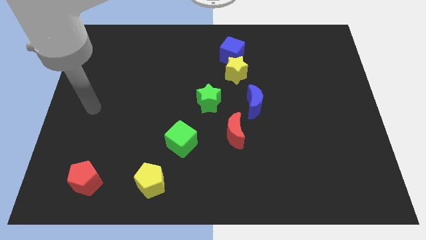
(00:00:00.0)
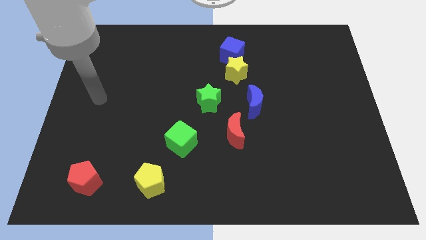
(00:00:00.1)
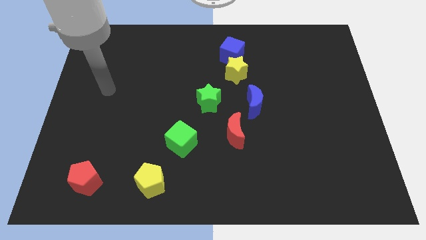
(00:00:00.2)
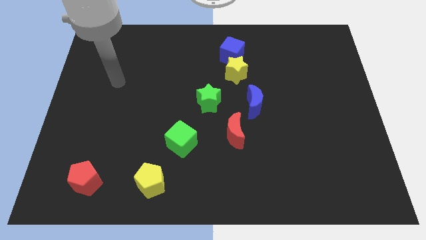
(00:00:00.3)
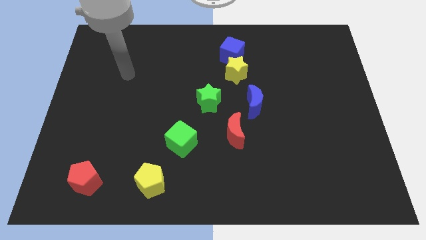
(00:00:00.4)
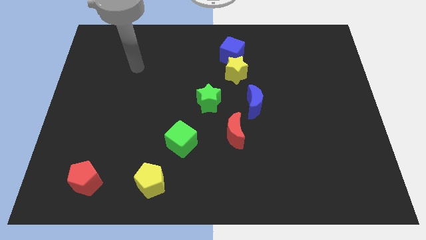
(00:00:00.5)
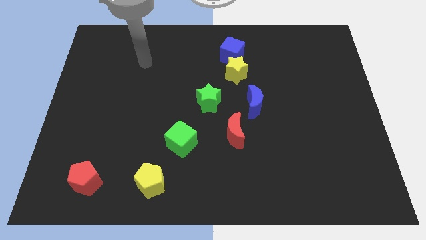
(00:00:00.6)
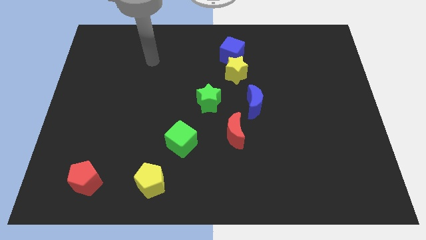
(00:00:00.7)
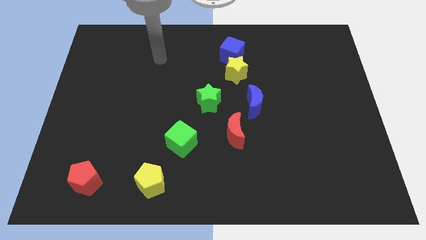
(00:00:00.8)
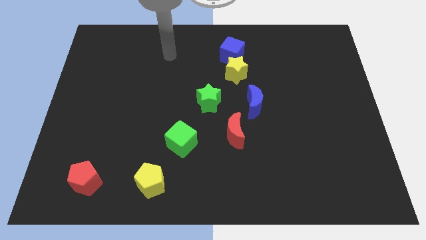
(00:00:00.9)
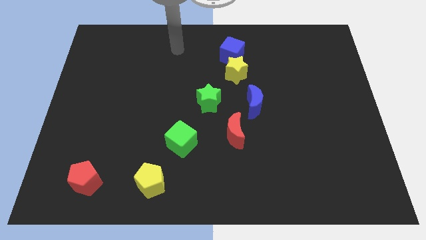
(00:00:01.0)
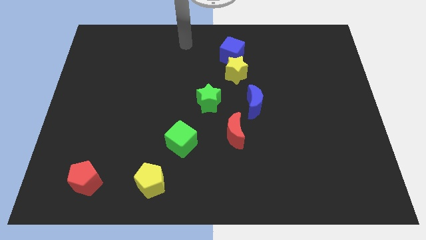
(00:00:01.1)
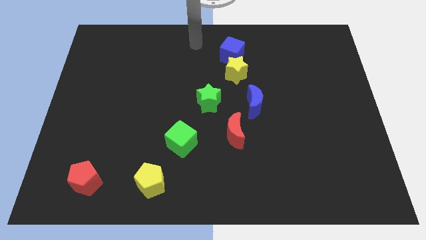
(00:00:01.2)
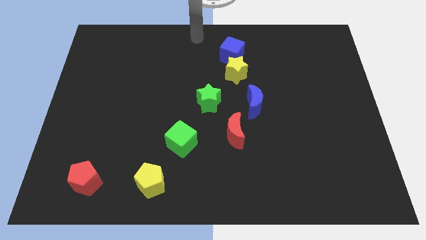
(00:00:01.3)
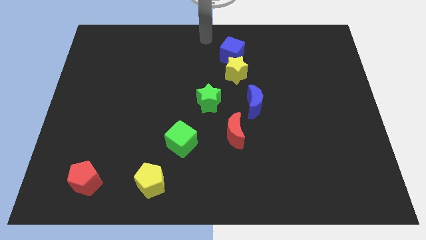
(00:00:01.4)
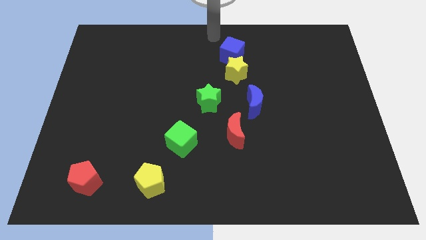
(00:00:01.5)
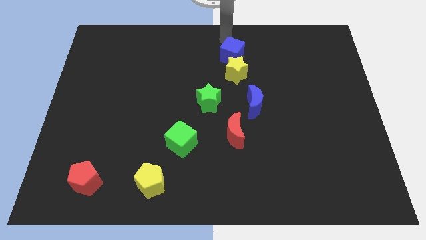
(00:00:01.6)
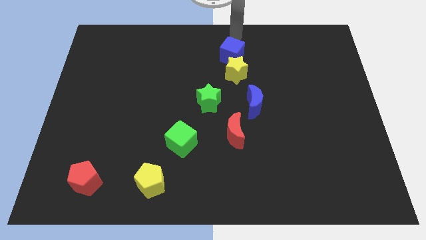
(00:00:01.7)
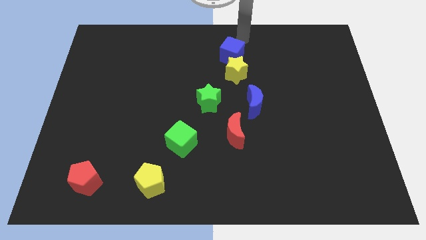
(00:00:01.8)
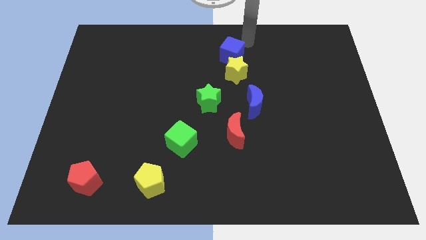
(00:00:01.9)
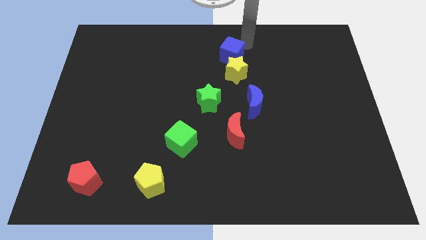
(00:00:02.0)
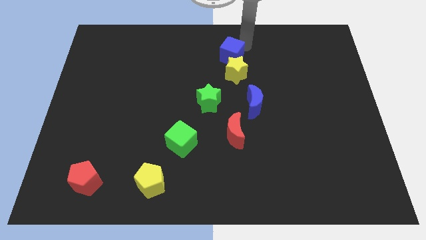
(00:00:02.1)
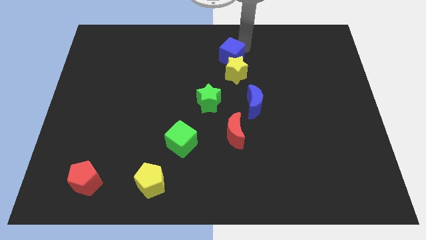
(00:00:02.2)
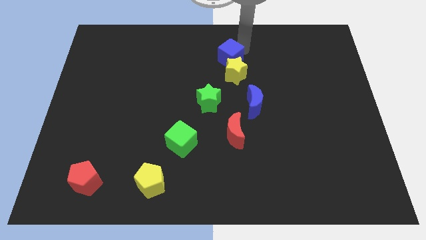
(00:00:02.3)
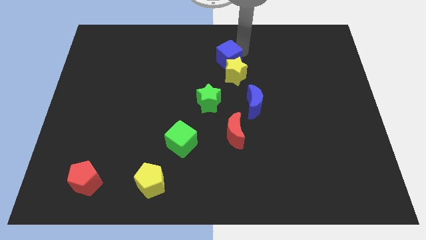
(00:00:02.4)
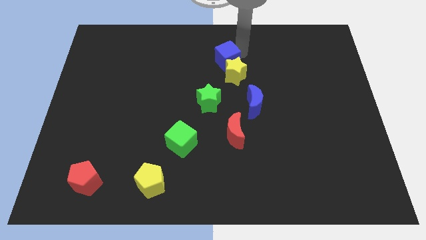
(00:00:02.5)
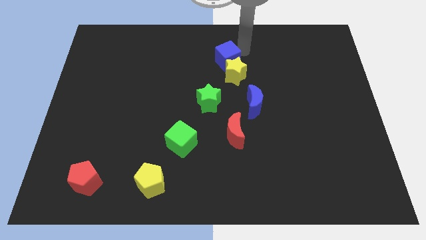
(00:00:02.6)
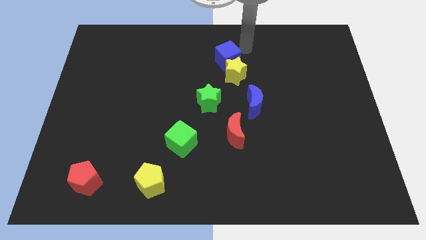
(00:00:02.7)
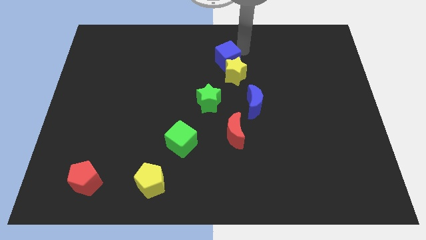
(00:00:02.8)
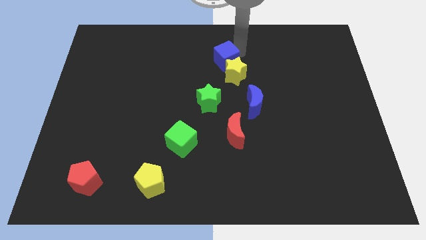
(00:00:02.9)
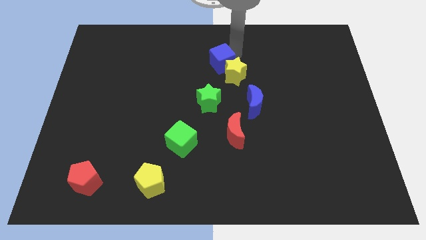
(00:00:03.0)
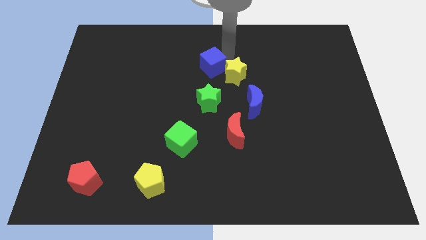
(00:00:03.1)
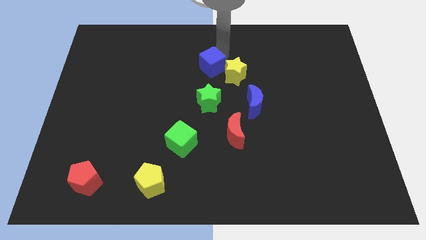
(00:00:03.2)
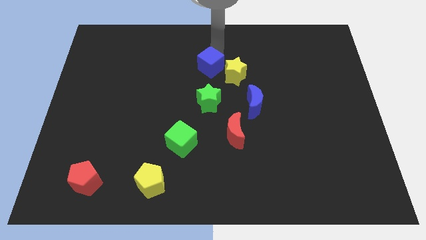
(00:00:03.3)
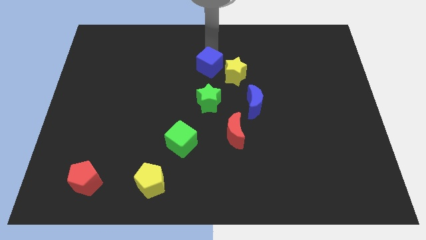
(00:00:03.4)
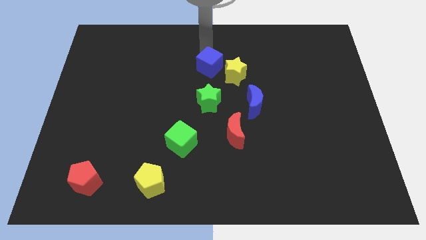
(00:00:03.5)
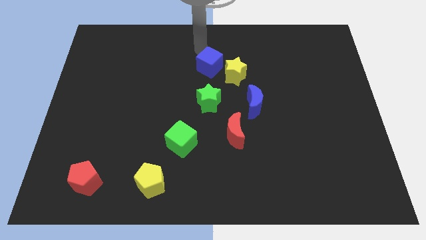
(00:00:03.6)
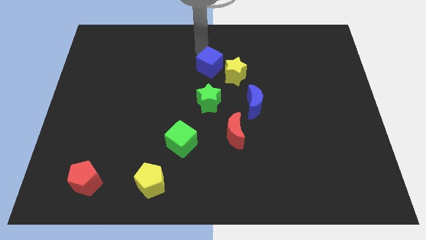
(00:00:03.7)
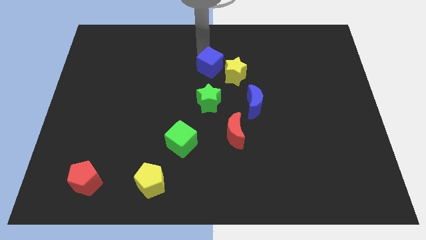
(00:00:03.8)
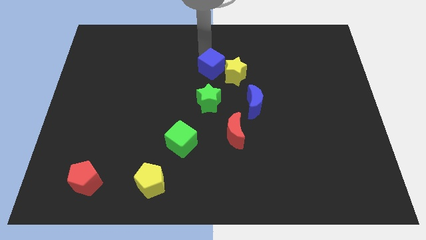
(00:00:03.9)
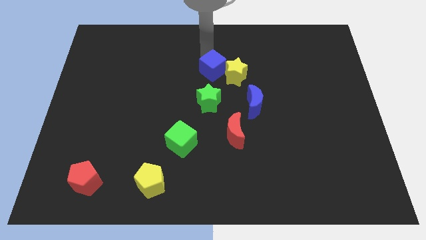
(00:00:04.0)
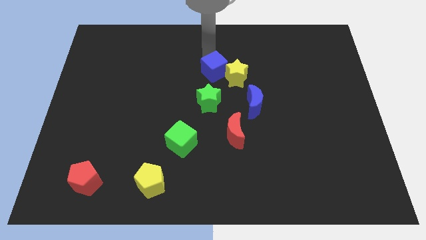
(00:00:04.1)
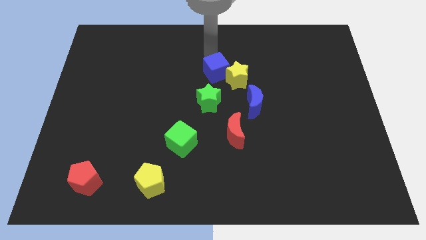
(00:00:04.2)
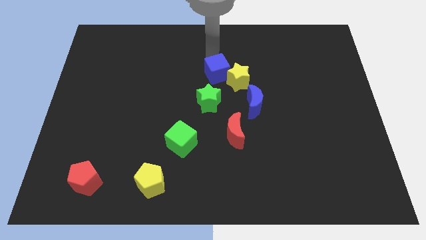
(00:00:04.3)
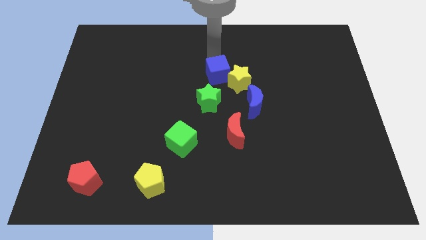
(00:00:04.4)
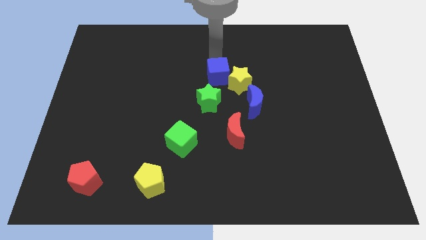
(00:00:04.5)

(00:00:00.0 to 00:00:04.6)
push the blue cube a bit down

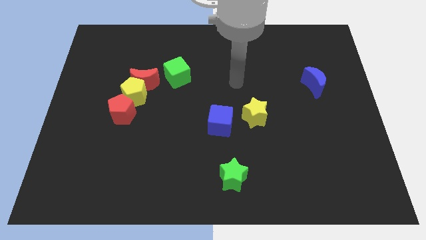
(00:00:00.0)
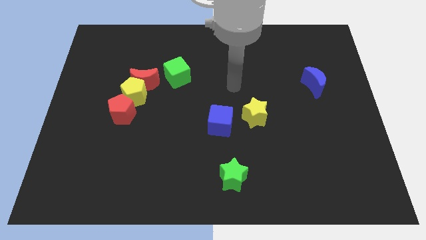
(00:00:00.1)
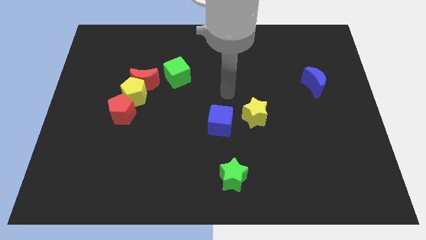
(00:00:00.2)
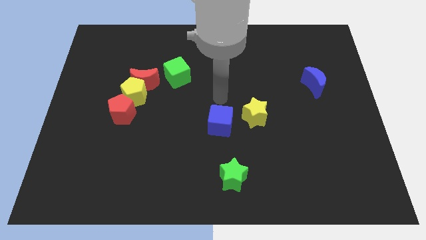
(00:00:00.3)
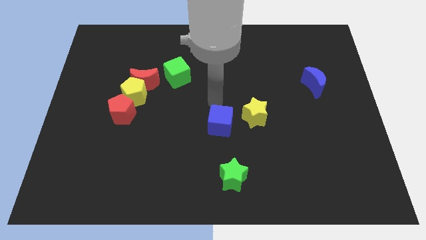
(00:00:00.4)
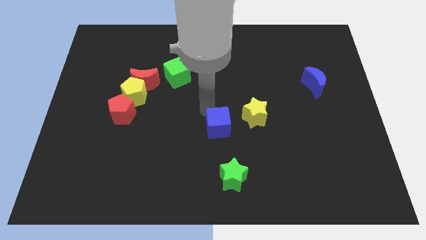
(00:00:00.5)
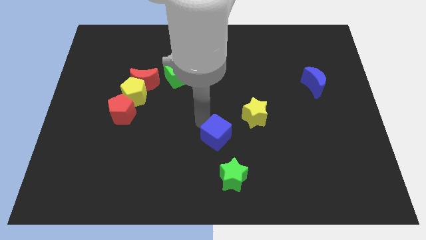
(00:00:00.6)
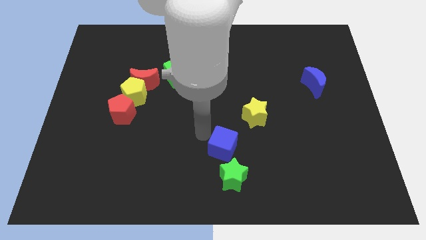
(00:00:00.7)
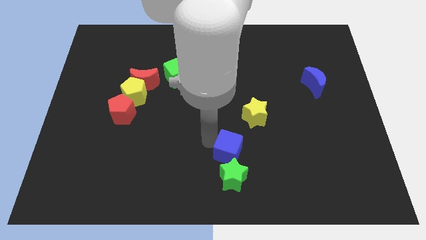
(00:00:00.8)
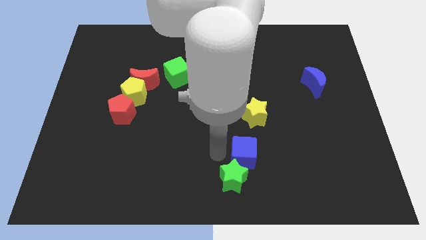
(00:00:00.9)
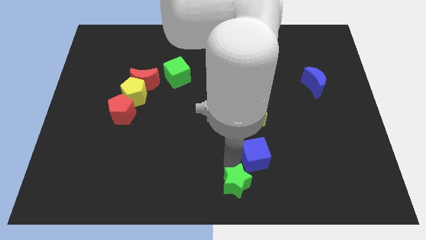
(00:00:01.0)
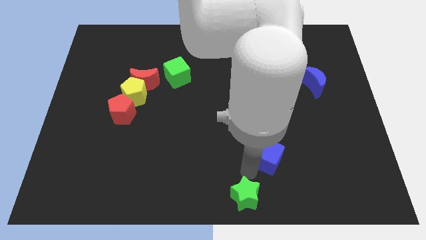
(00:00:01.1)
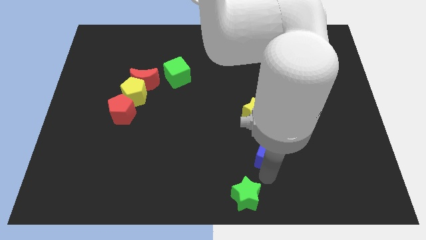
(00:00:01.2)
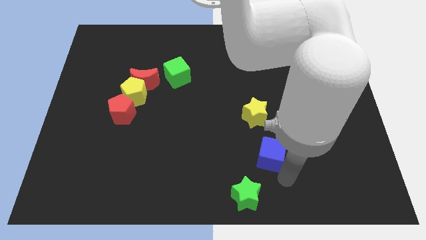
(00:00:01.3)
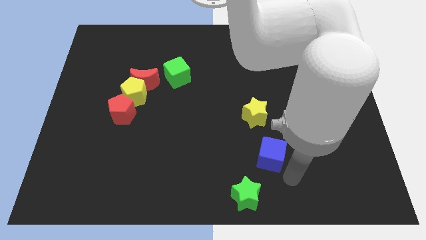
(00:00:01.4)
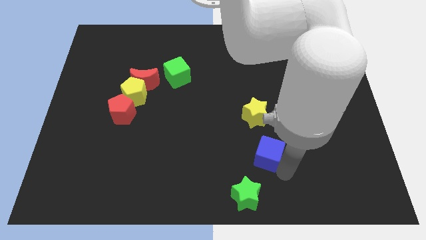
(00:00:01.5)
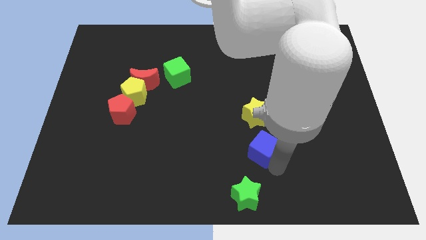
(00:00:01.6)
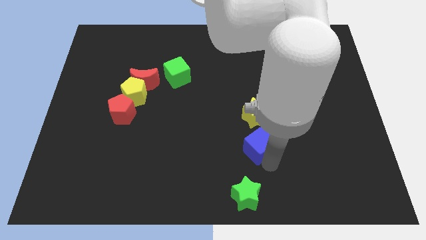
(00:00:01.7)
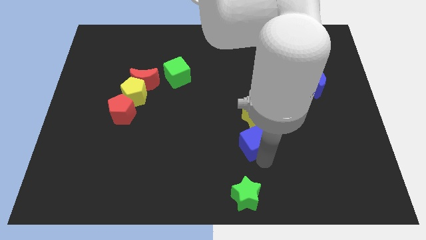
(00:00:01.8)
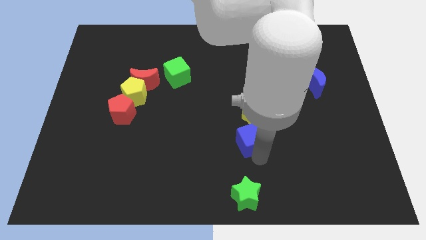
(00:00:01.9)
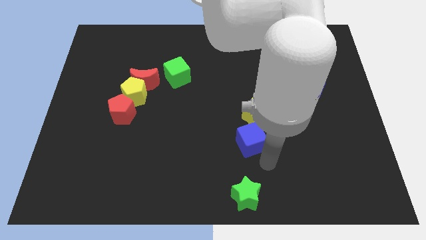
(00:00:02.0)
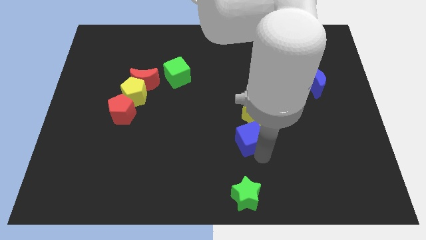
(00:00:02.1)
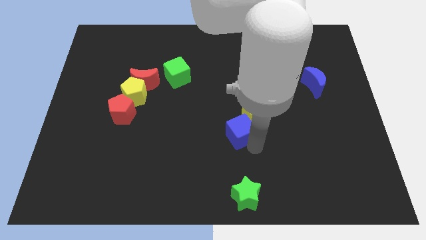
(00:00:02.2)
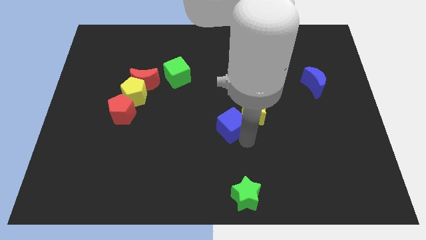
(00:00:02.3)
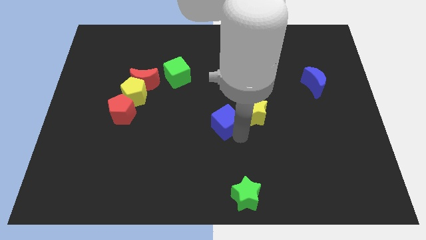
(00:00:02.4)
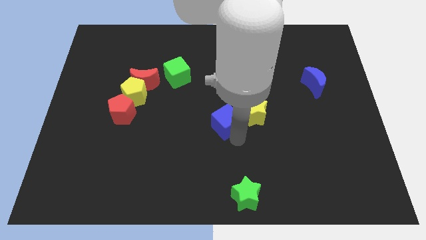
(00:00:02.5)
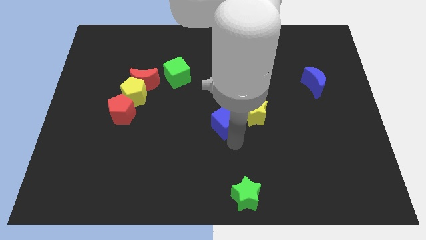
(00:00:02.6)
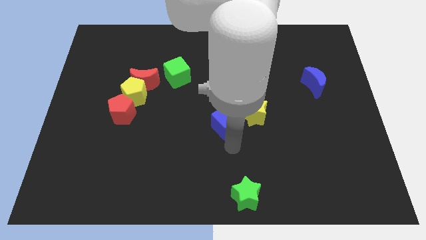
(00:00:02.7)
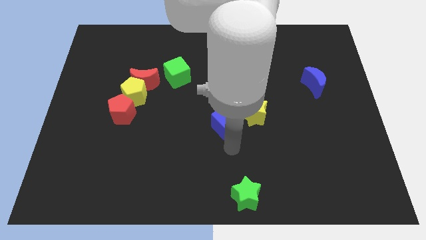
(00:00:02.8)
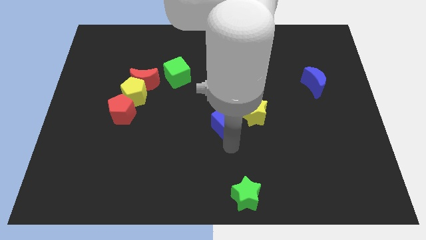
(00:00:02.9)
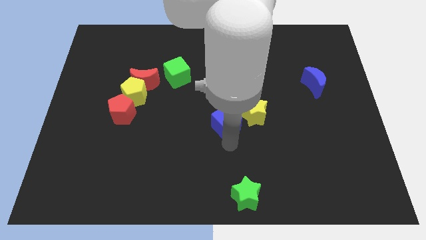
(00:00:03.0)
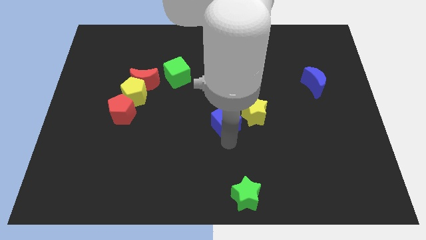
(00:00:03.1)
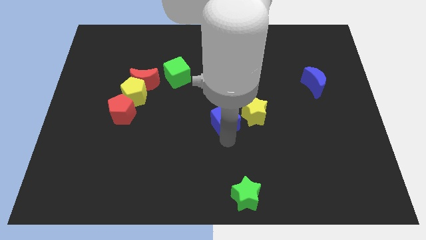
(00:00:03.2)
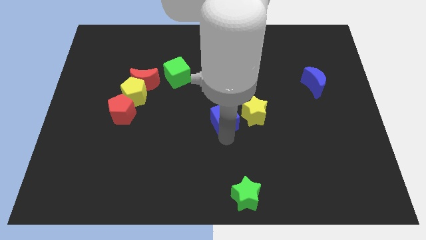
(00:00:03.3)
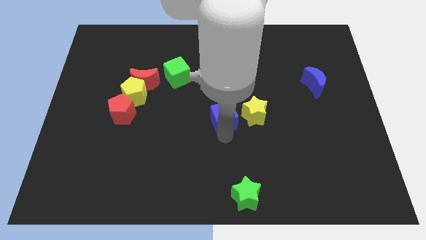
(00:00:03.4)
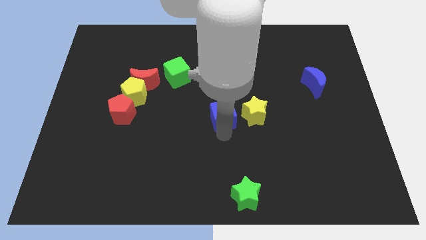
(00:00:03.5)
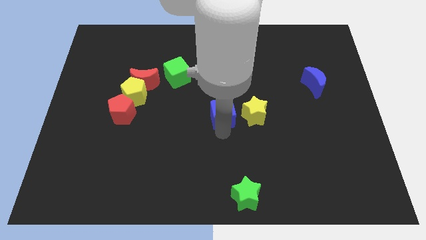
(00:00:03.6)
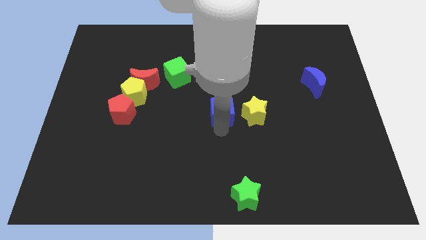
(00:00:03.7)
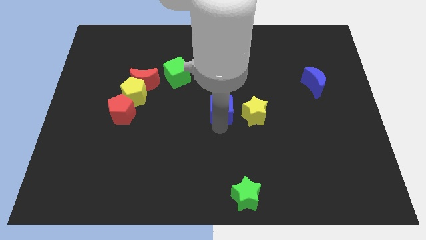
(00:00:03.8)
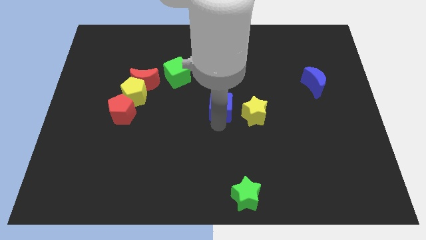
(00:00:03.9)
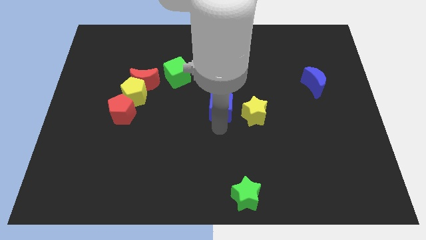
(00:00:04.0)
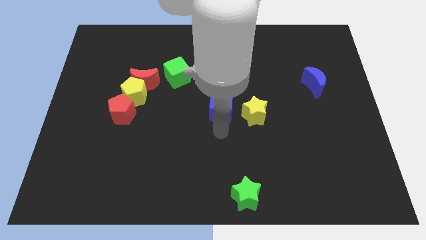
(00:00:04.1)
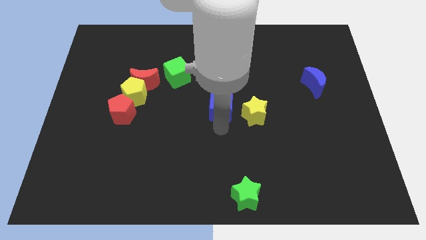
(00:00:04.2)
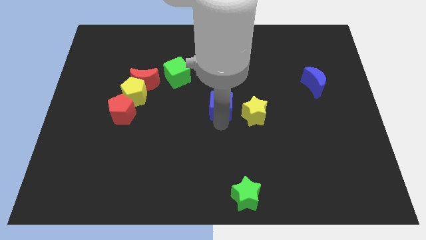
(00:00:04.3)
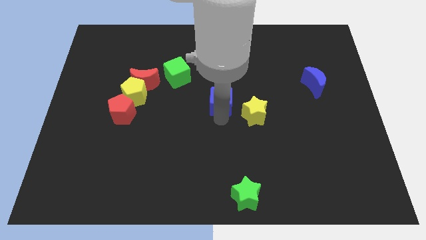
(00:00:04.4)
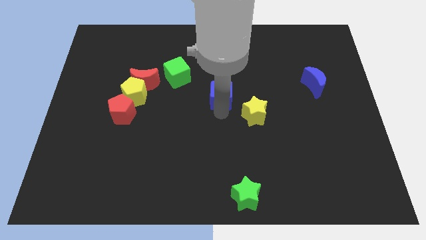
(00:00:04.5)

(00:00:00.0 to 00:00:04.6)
slide the blue cube up somewhat
